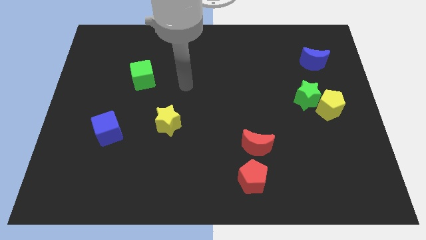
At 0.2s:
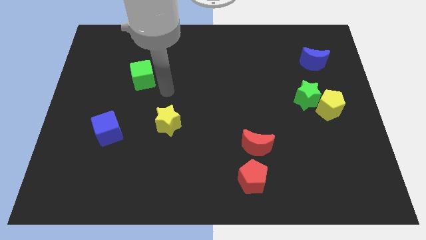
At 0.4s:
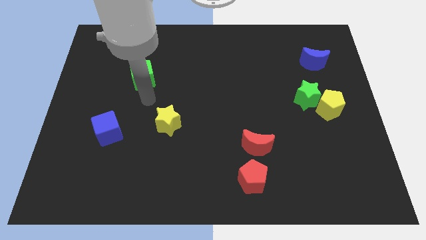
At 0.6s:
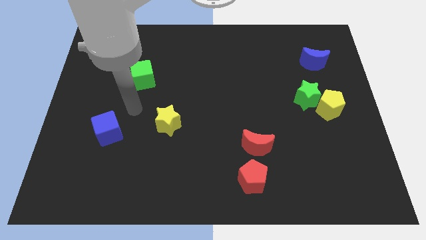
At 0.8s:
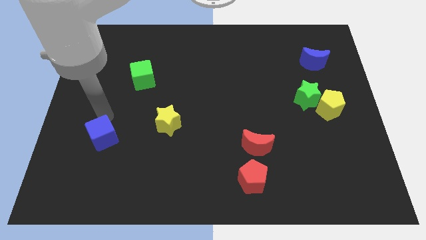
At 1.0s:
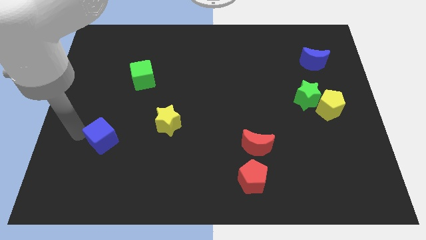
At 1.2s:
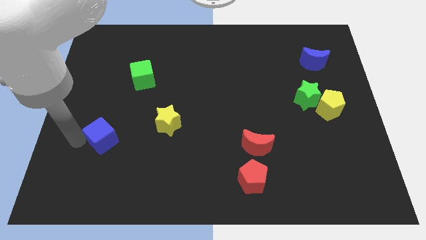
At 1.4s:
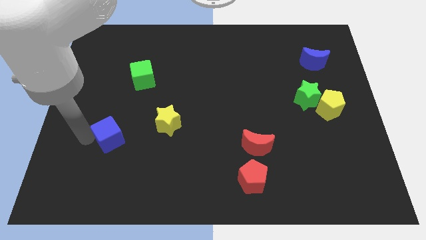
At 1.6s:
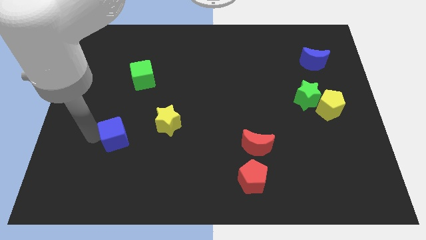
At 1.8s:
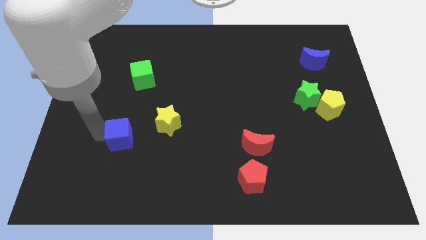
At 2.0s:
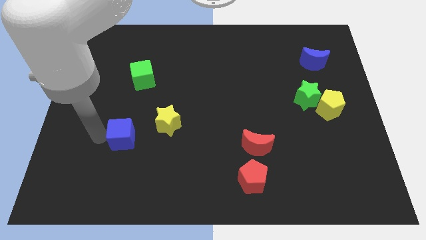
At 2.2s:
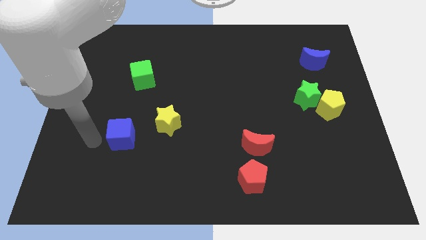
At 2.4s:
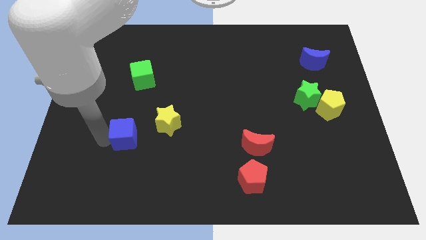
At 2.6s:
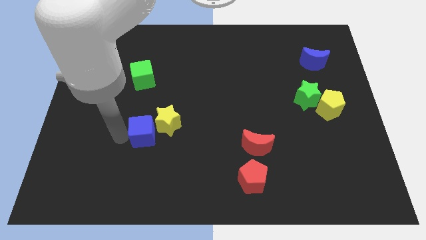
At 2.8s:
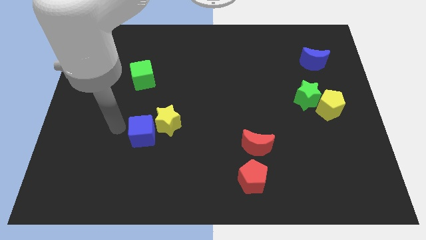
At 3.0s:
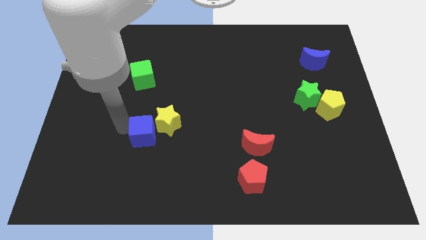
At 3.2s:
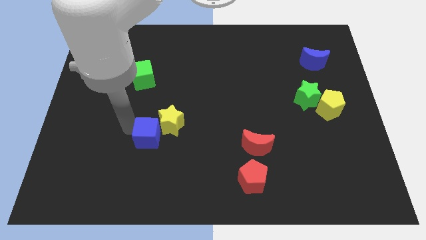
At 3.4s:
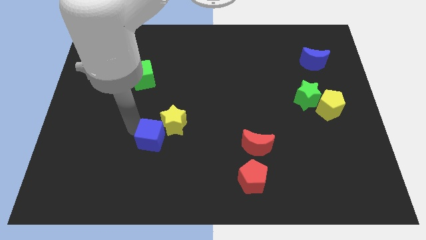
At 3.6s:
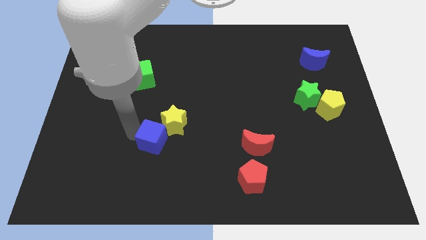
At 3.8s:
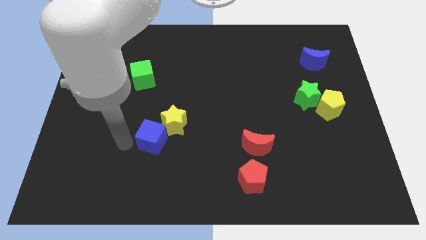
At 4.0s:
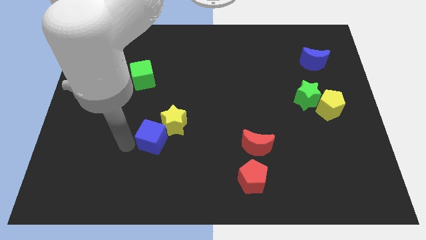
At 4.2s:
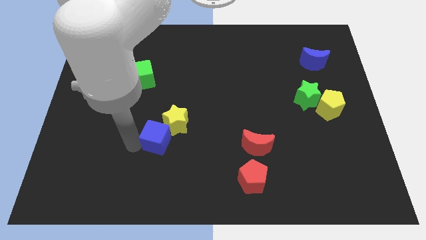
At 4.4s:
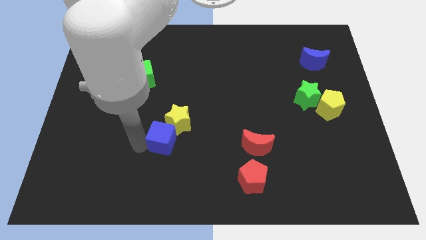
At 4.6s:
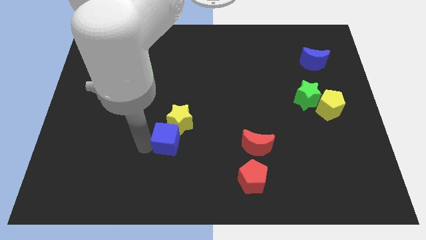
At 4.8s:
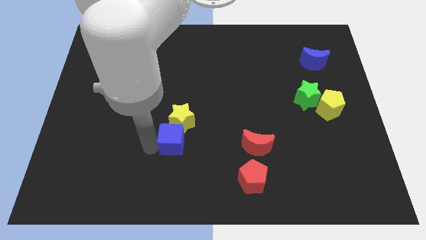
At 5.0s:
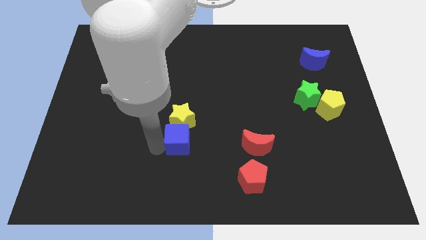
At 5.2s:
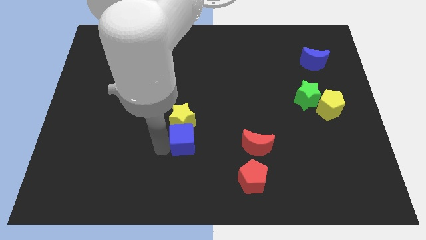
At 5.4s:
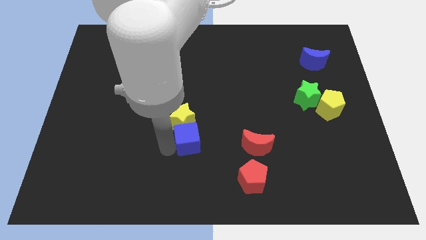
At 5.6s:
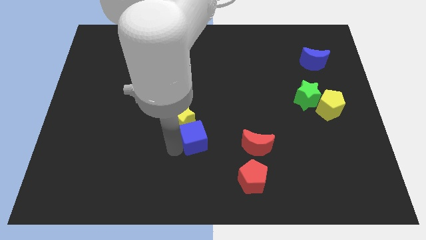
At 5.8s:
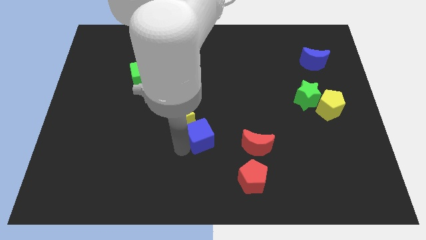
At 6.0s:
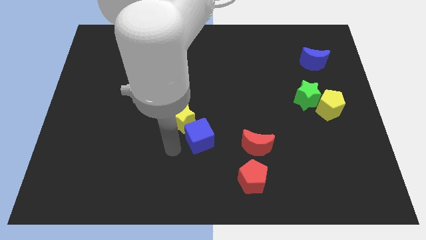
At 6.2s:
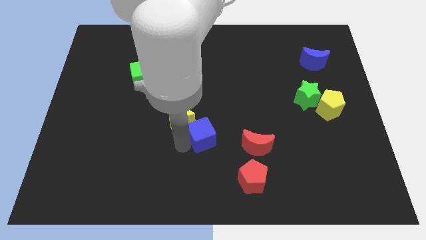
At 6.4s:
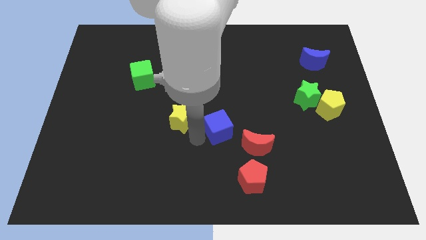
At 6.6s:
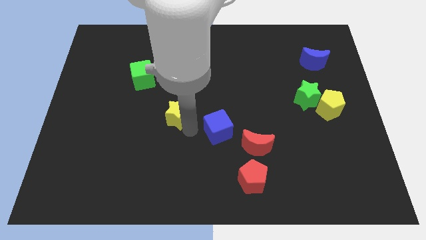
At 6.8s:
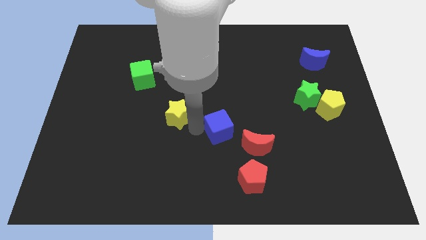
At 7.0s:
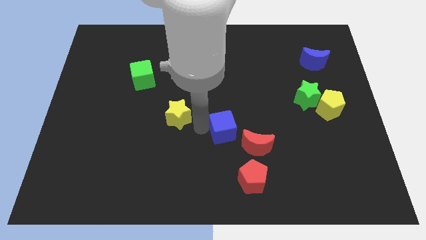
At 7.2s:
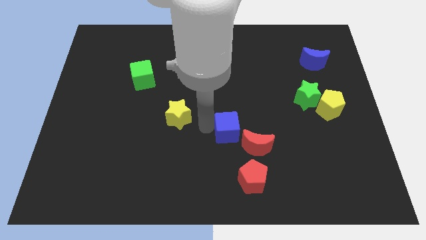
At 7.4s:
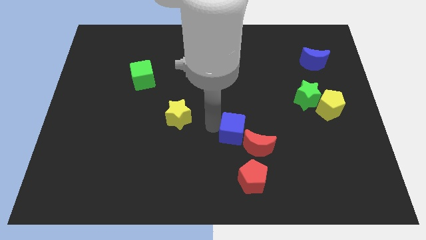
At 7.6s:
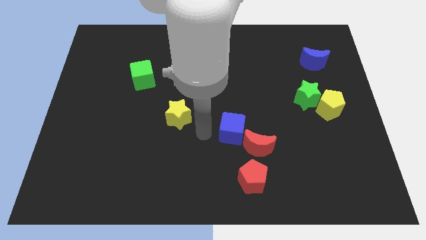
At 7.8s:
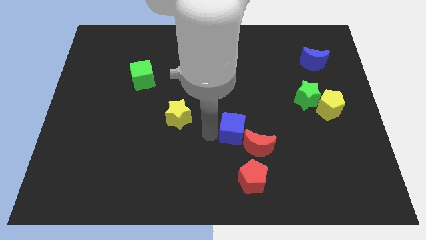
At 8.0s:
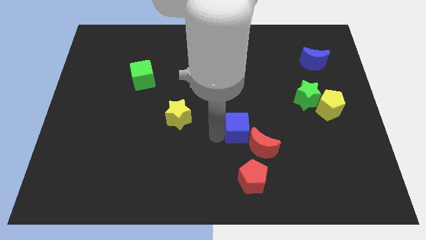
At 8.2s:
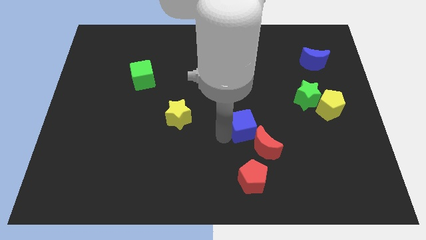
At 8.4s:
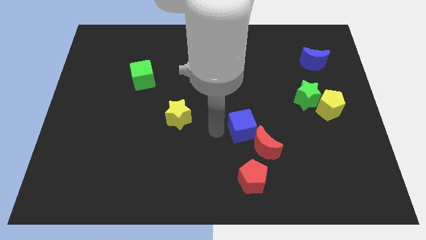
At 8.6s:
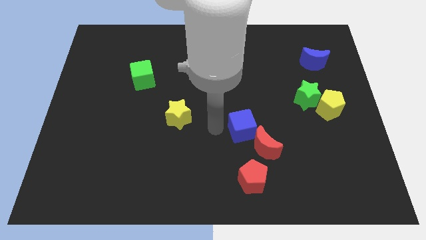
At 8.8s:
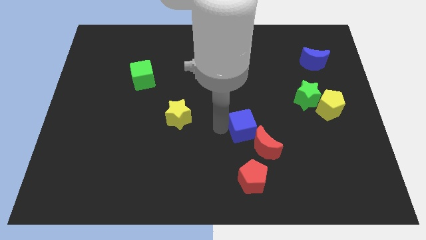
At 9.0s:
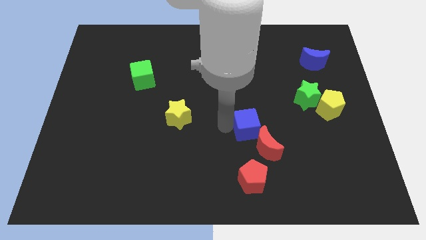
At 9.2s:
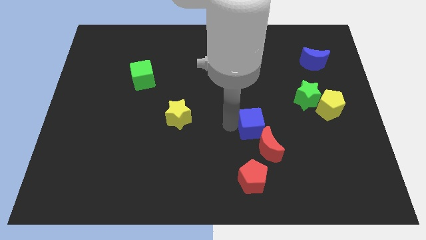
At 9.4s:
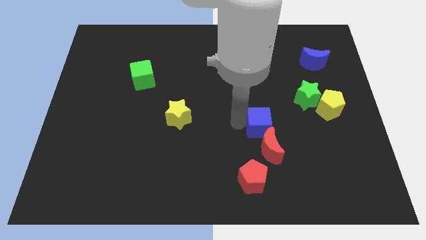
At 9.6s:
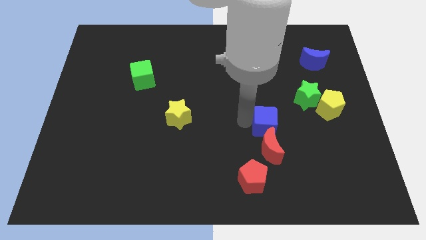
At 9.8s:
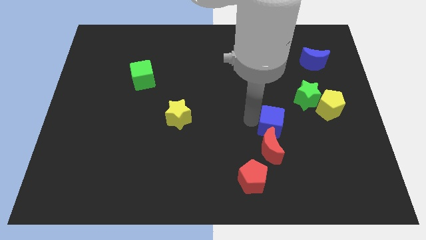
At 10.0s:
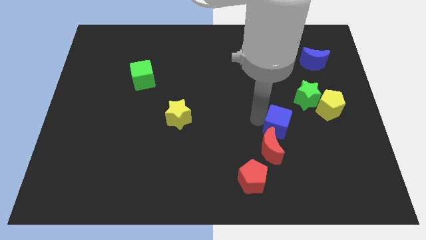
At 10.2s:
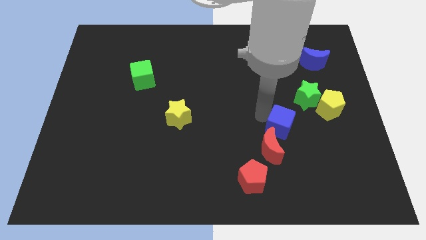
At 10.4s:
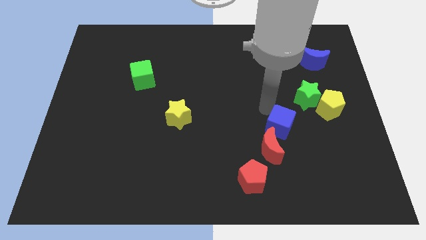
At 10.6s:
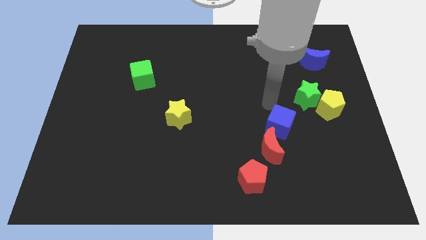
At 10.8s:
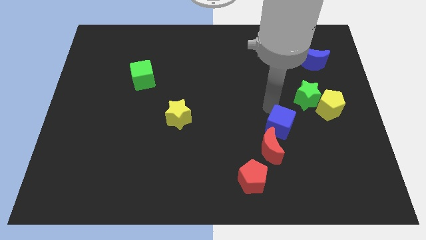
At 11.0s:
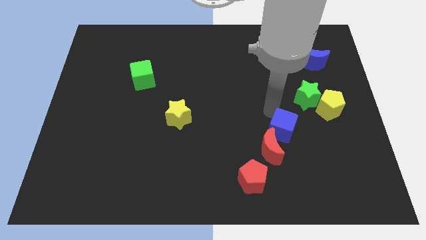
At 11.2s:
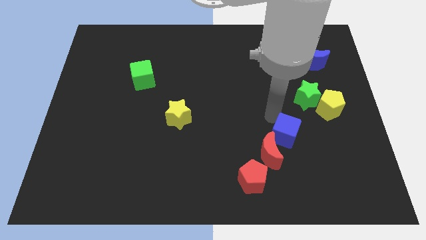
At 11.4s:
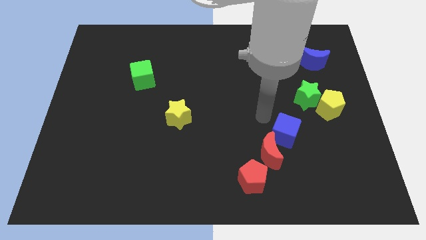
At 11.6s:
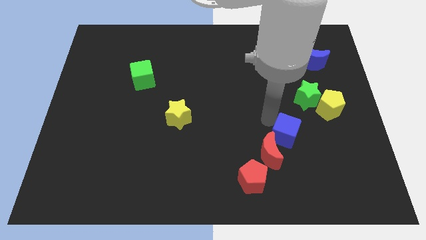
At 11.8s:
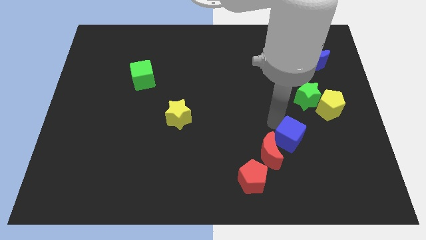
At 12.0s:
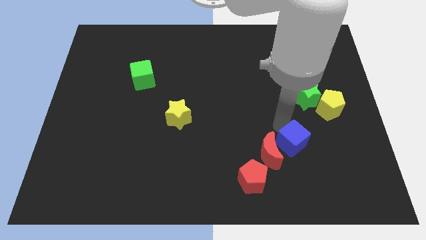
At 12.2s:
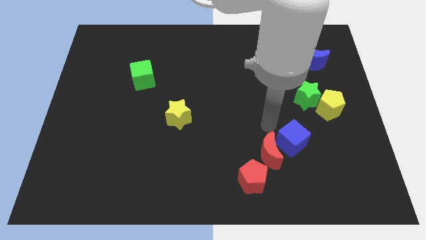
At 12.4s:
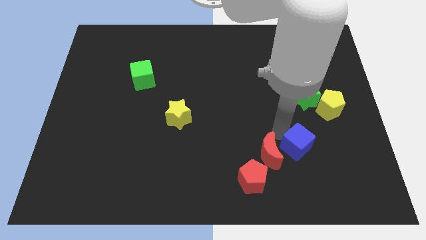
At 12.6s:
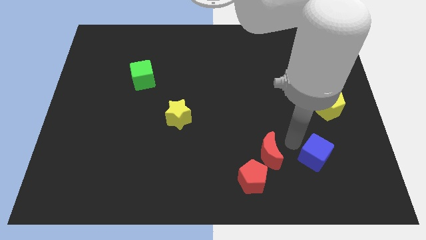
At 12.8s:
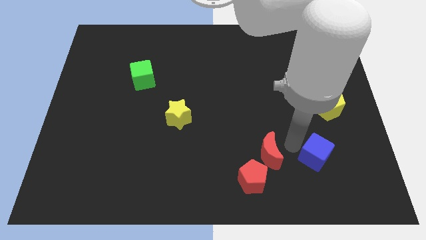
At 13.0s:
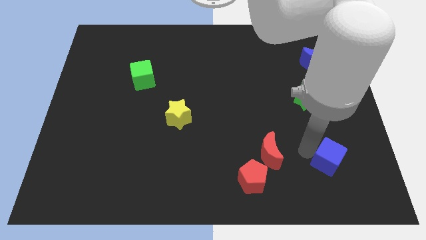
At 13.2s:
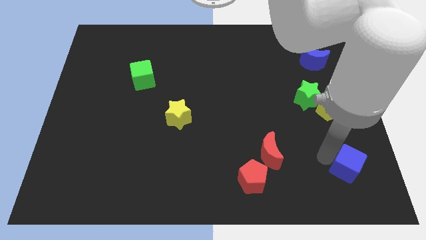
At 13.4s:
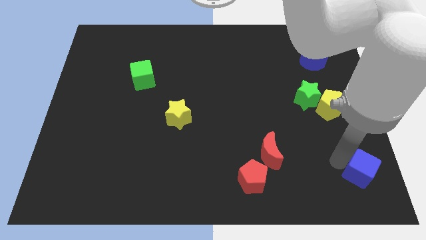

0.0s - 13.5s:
slide the blue cube to the bottom right
